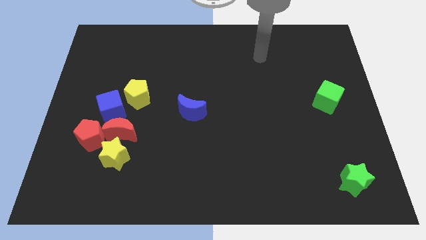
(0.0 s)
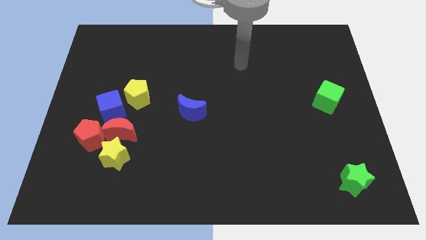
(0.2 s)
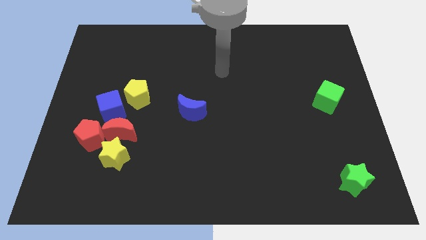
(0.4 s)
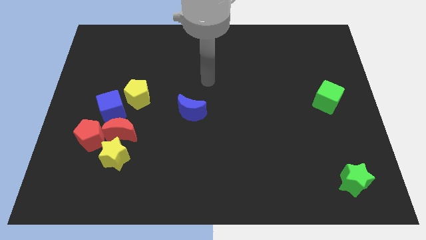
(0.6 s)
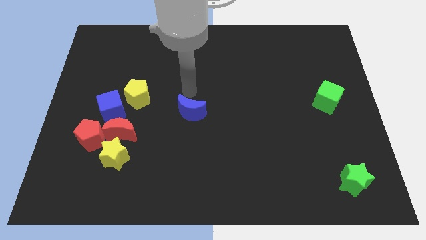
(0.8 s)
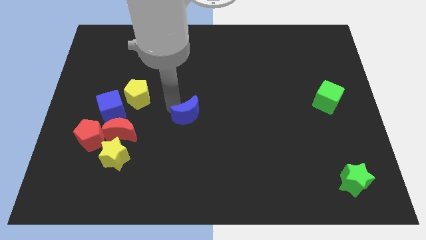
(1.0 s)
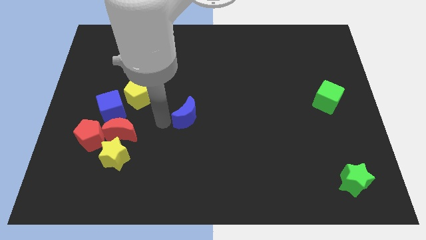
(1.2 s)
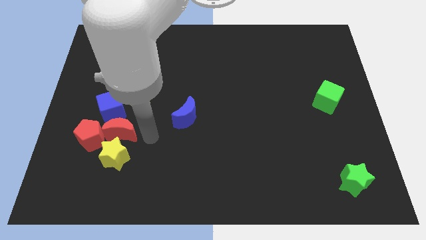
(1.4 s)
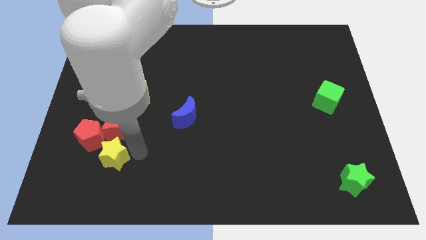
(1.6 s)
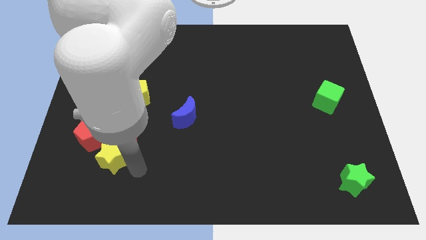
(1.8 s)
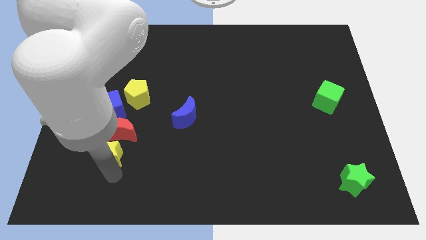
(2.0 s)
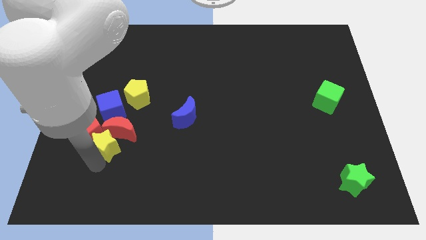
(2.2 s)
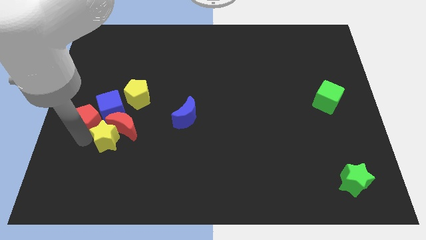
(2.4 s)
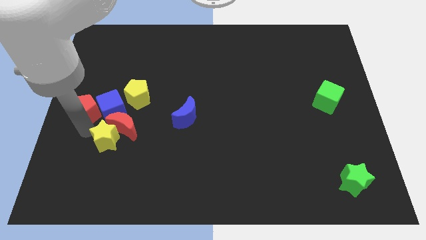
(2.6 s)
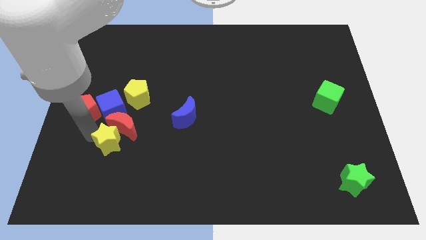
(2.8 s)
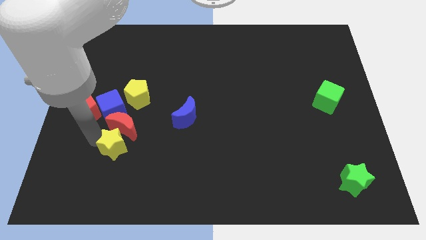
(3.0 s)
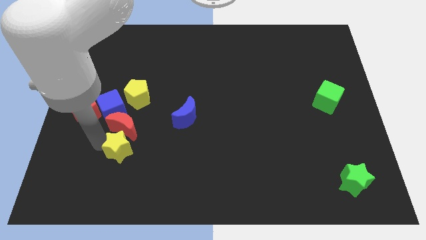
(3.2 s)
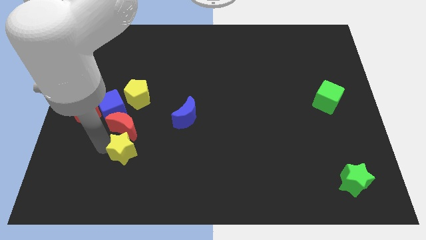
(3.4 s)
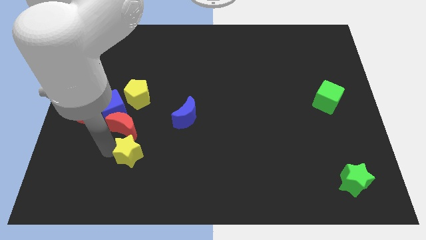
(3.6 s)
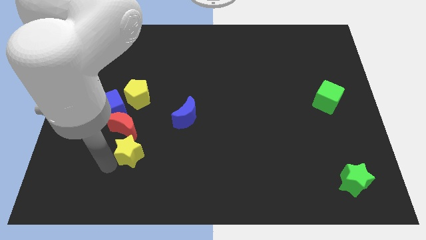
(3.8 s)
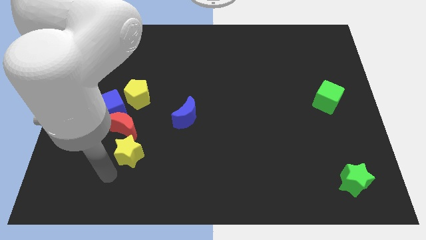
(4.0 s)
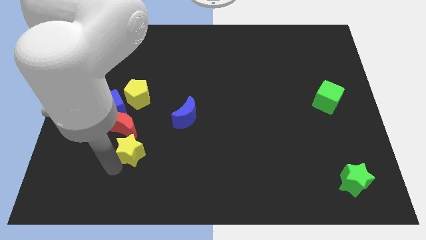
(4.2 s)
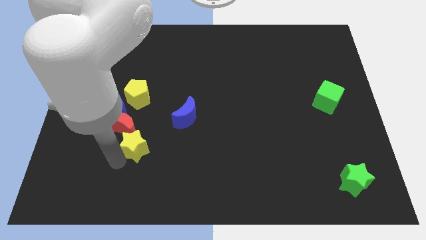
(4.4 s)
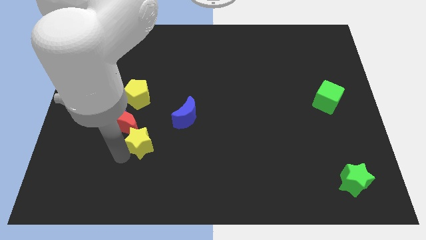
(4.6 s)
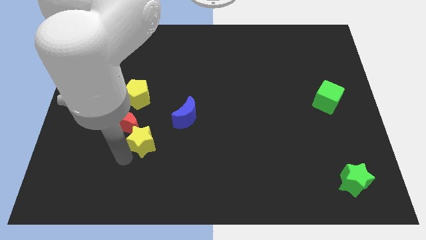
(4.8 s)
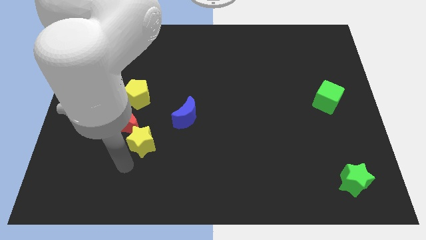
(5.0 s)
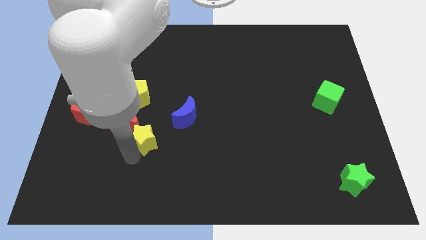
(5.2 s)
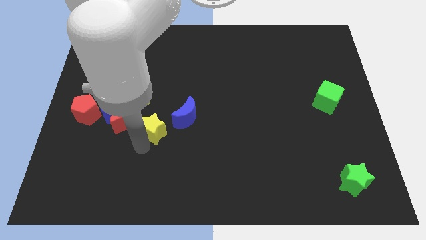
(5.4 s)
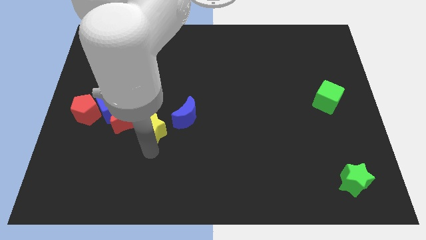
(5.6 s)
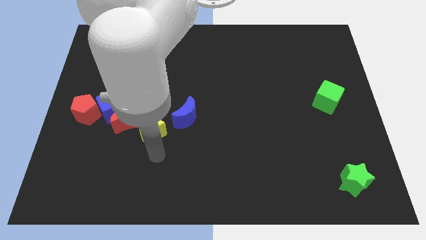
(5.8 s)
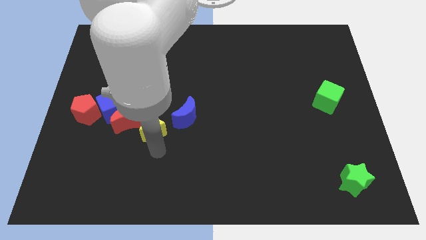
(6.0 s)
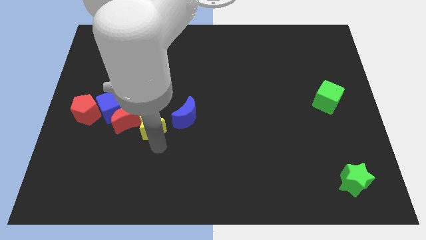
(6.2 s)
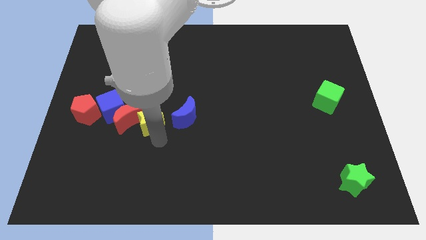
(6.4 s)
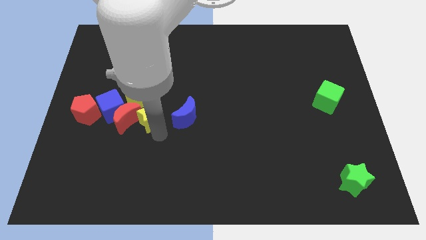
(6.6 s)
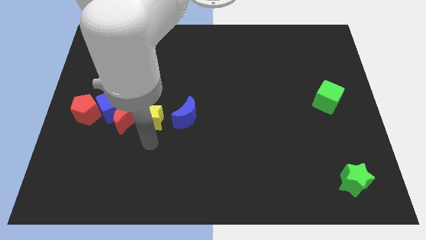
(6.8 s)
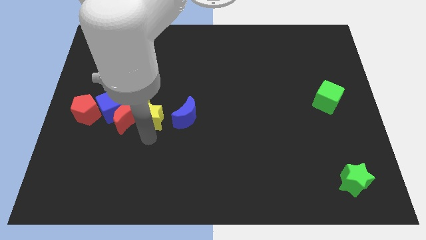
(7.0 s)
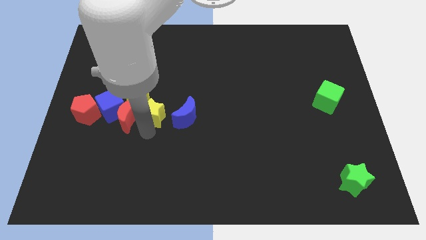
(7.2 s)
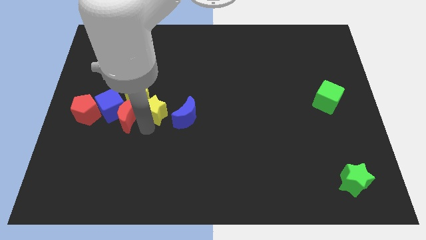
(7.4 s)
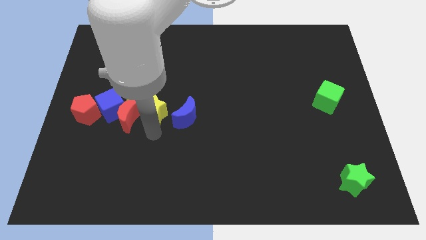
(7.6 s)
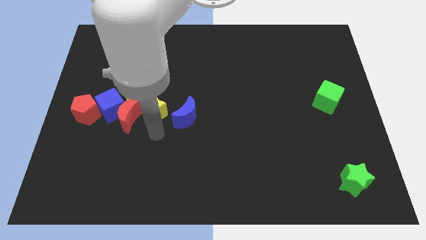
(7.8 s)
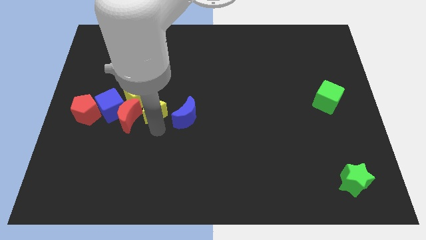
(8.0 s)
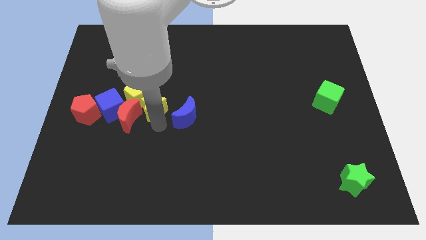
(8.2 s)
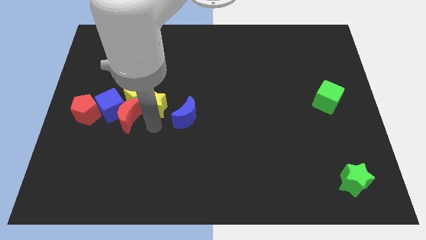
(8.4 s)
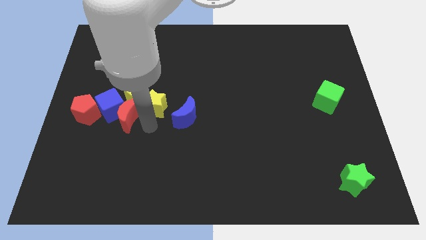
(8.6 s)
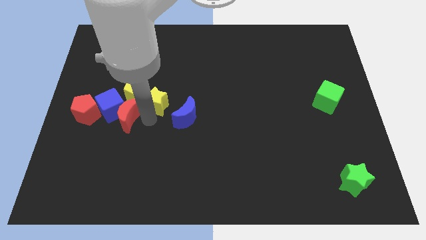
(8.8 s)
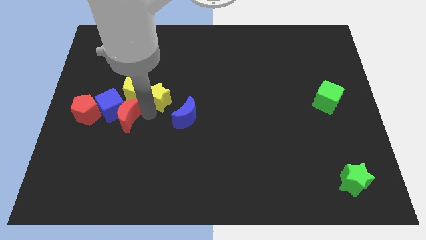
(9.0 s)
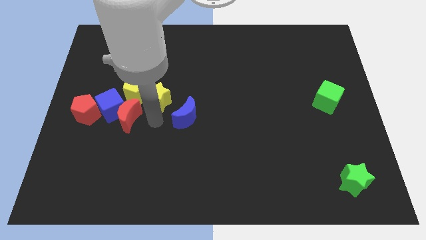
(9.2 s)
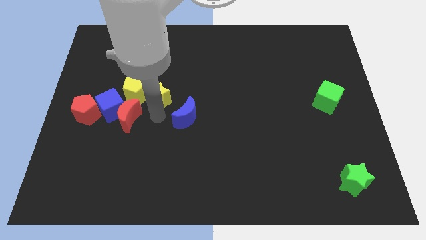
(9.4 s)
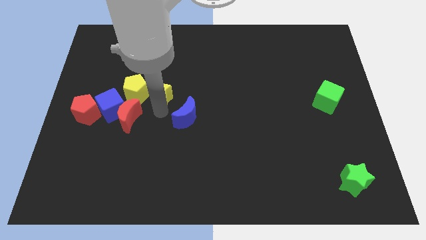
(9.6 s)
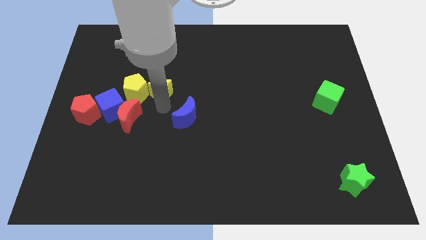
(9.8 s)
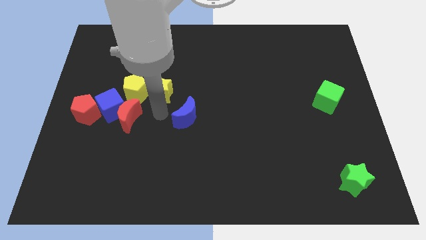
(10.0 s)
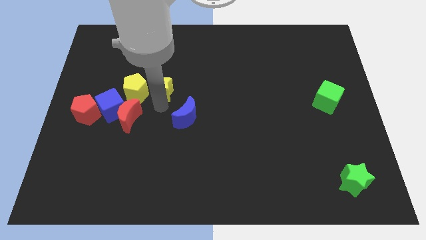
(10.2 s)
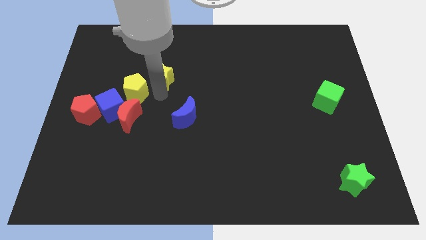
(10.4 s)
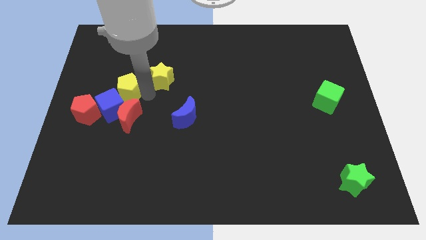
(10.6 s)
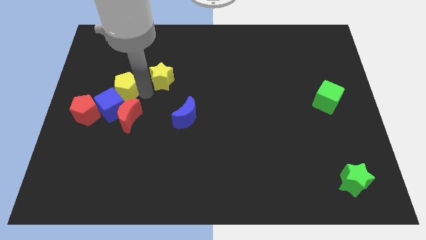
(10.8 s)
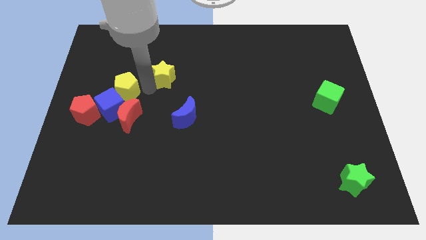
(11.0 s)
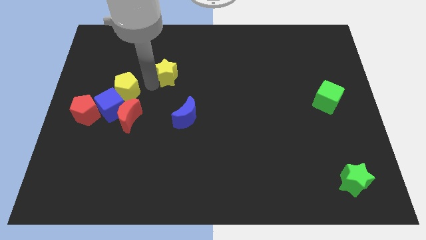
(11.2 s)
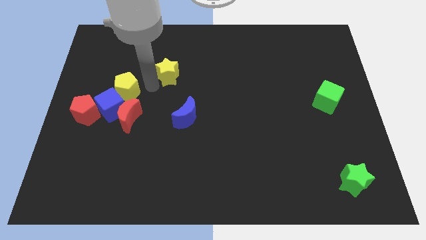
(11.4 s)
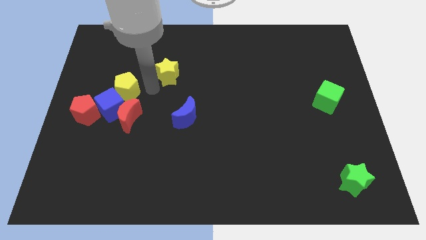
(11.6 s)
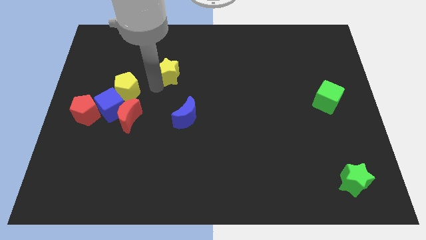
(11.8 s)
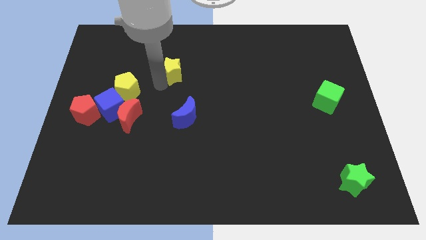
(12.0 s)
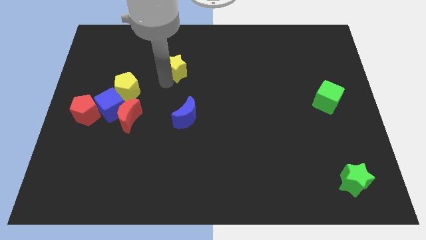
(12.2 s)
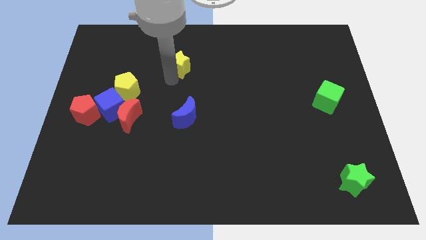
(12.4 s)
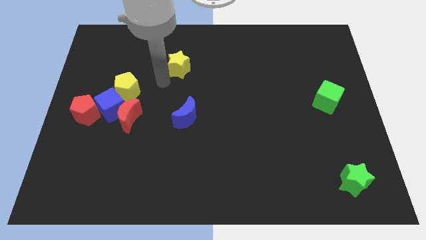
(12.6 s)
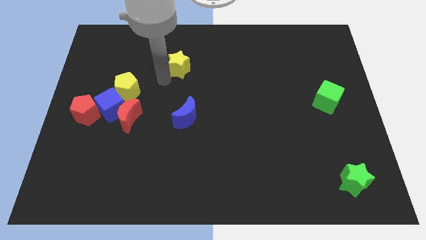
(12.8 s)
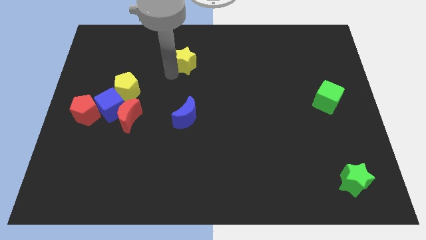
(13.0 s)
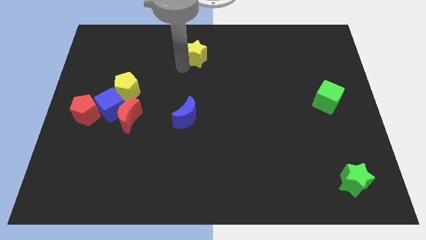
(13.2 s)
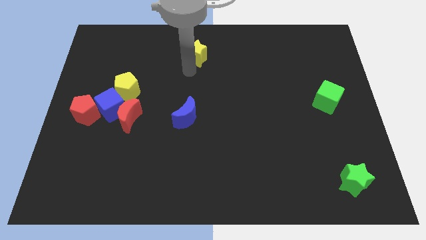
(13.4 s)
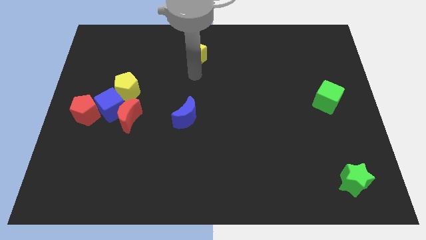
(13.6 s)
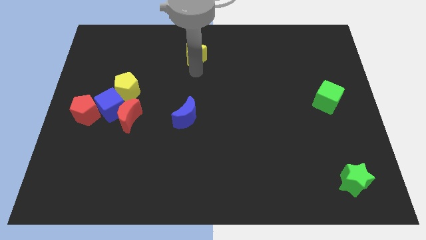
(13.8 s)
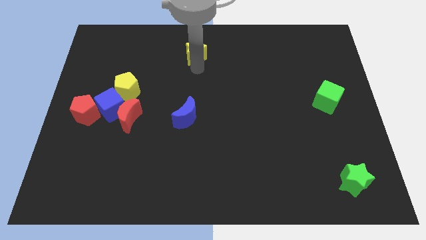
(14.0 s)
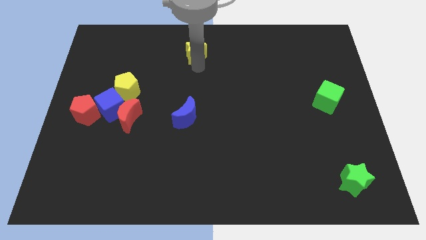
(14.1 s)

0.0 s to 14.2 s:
push the yellow star to the towards your base
